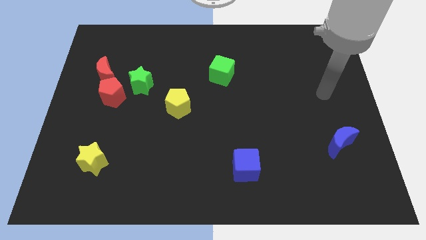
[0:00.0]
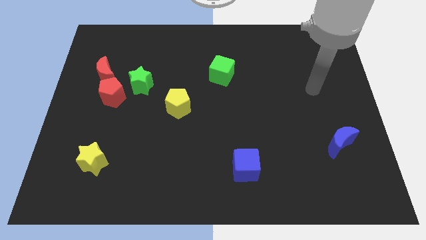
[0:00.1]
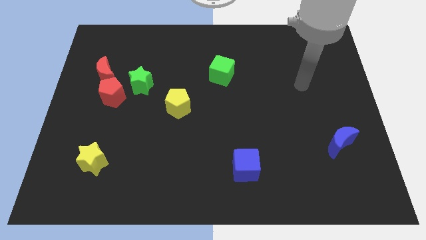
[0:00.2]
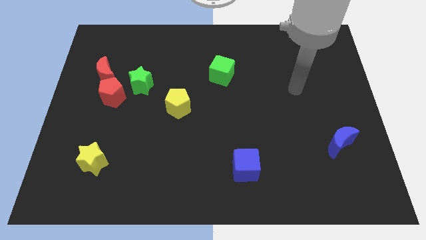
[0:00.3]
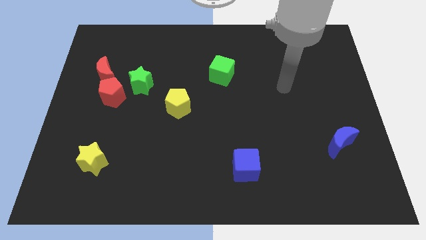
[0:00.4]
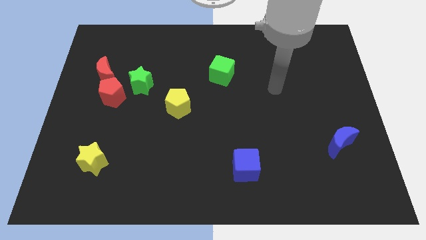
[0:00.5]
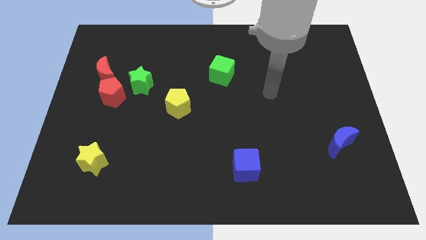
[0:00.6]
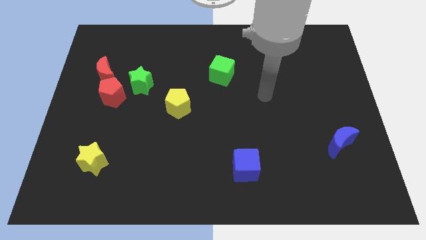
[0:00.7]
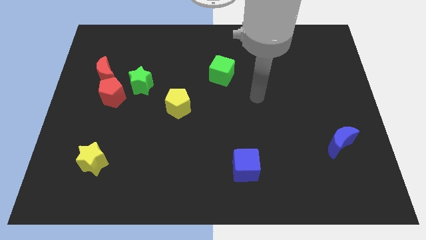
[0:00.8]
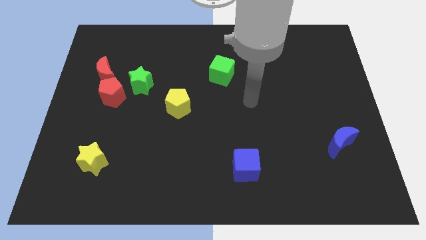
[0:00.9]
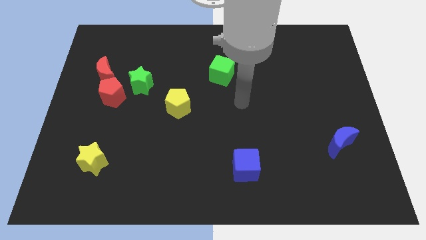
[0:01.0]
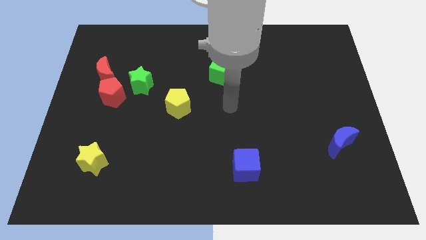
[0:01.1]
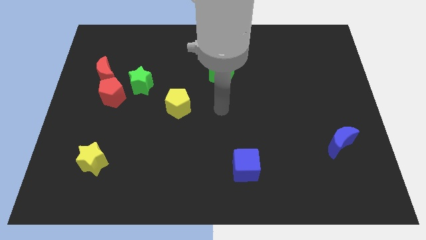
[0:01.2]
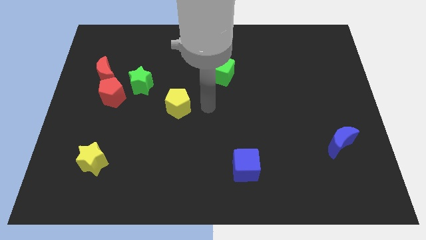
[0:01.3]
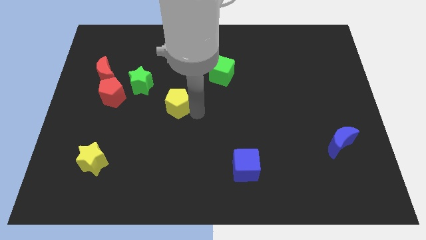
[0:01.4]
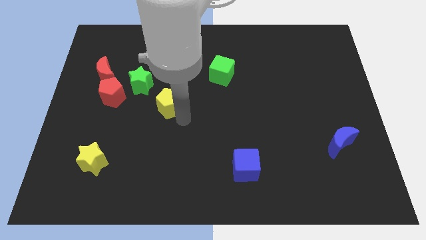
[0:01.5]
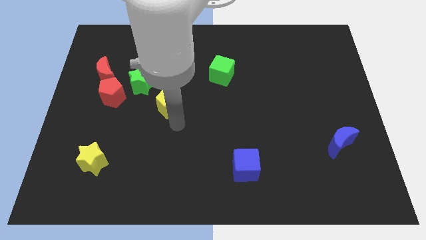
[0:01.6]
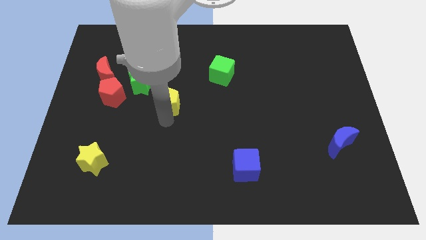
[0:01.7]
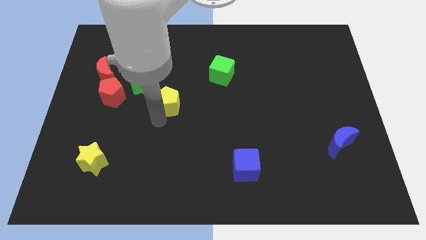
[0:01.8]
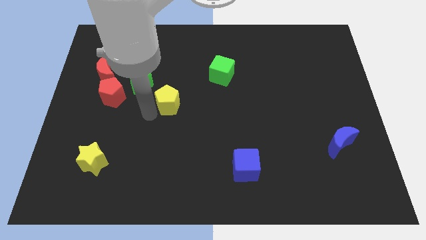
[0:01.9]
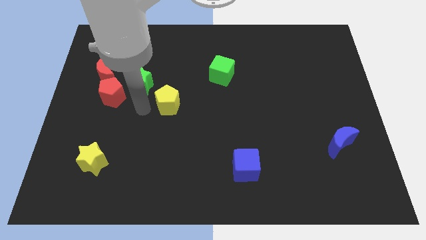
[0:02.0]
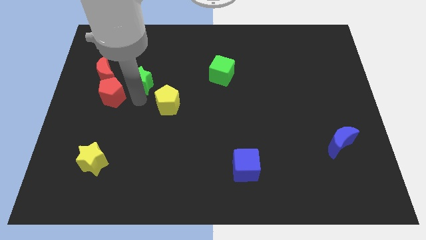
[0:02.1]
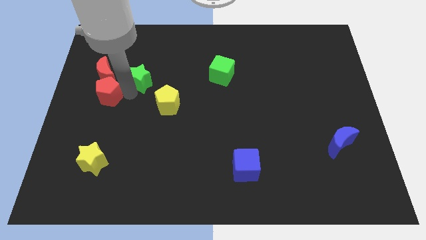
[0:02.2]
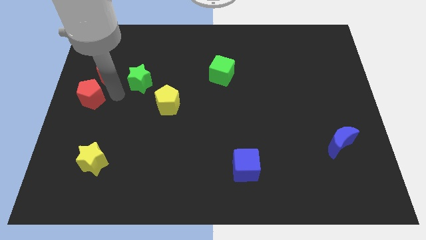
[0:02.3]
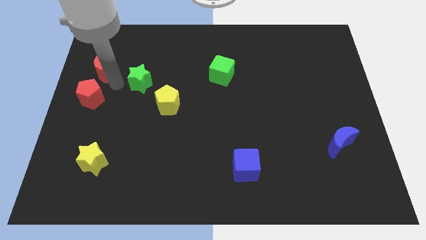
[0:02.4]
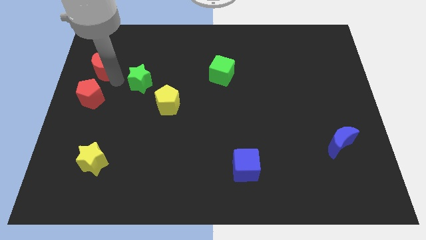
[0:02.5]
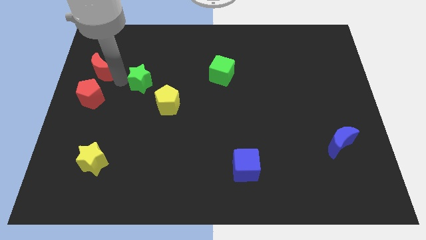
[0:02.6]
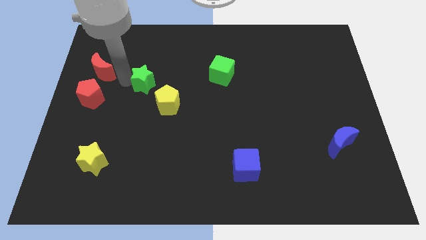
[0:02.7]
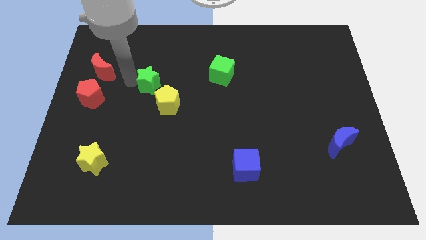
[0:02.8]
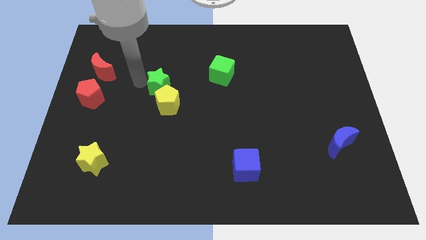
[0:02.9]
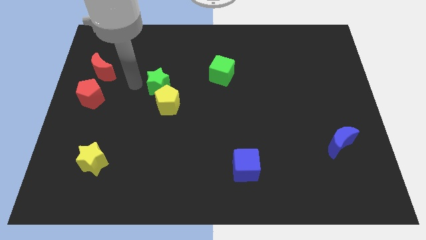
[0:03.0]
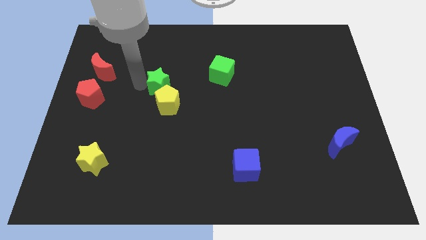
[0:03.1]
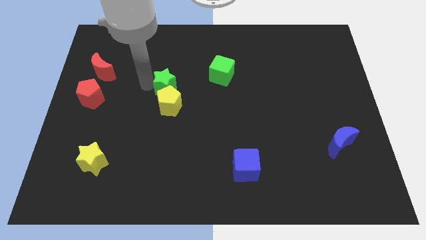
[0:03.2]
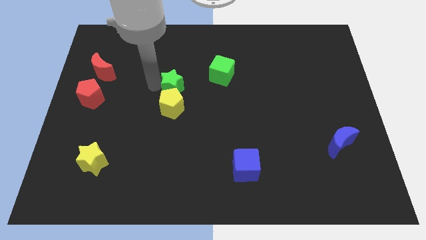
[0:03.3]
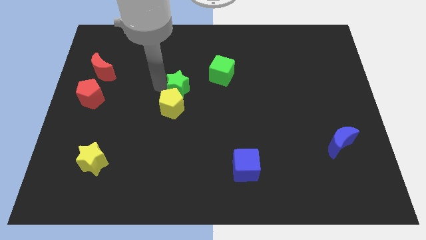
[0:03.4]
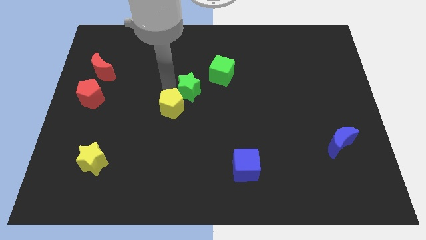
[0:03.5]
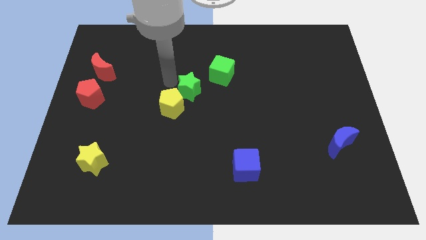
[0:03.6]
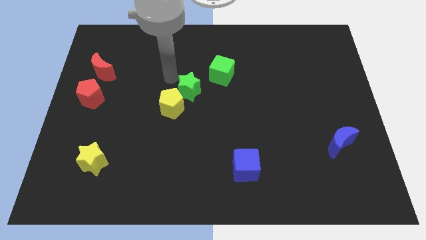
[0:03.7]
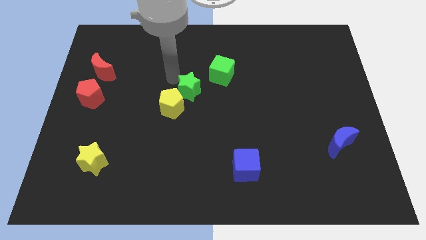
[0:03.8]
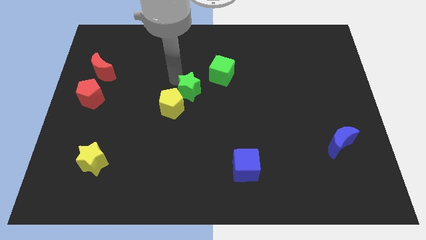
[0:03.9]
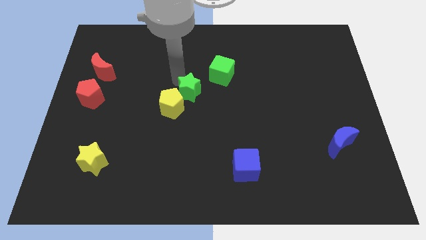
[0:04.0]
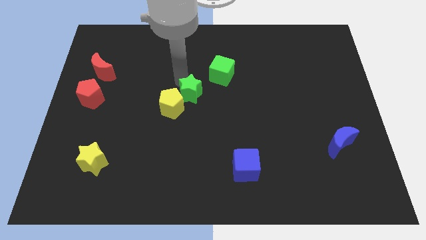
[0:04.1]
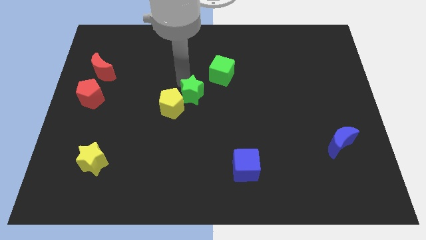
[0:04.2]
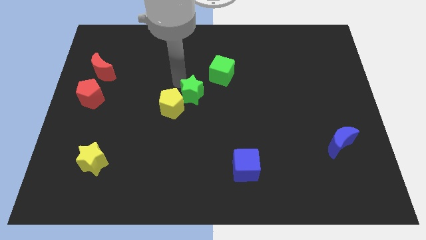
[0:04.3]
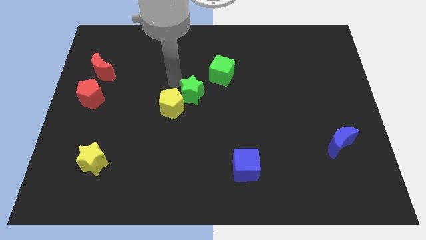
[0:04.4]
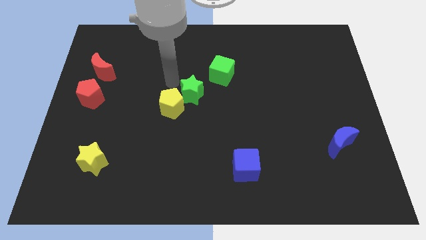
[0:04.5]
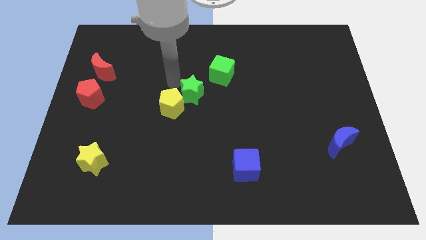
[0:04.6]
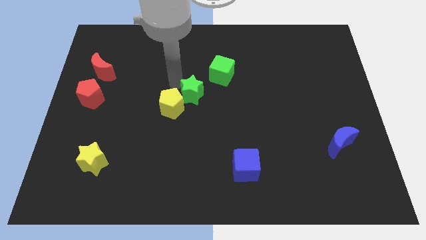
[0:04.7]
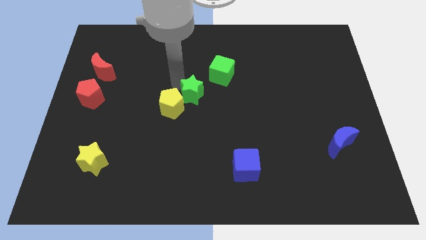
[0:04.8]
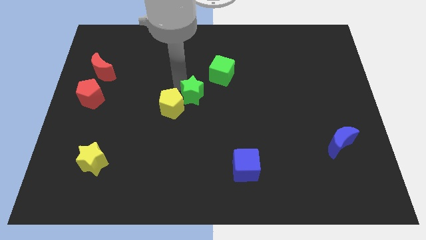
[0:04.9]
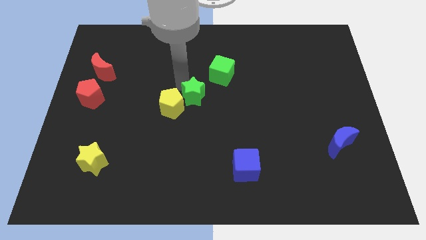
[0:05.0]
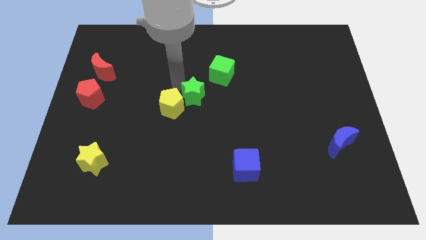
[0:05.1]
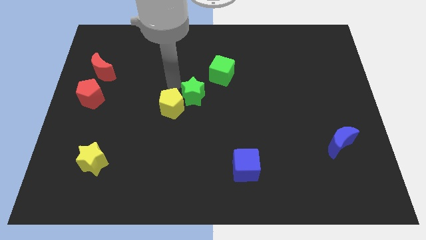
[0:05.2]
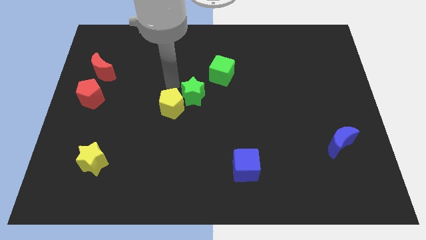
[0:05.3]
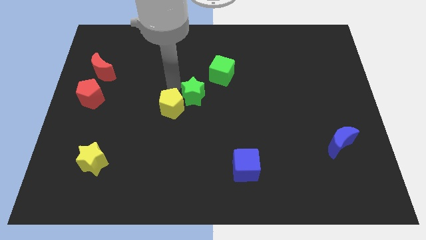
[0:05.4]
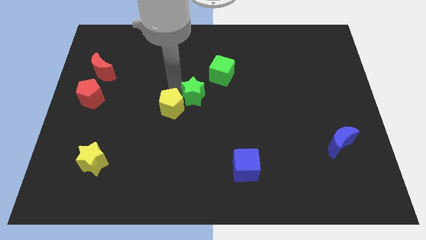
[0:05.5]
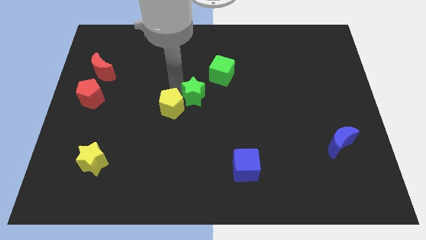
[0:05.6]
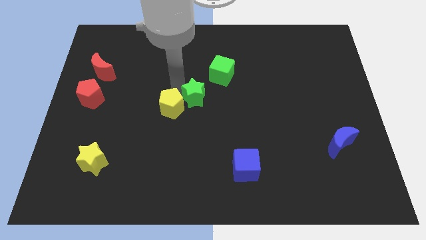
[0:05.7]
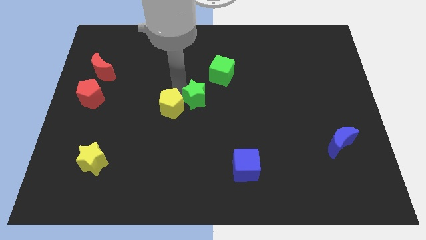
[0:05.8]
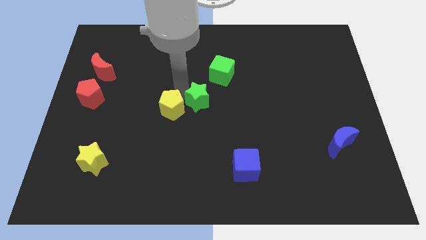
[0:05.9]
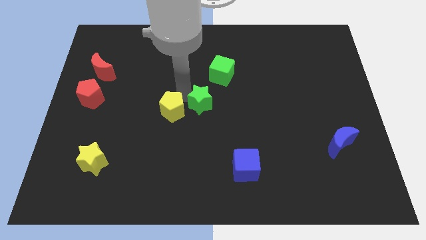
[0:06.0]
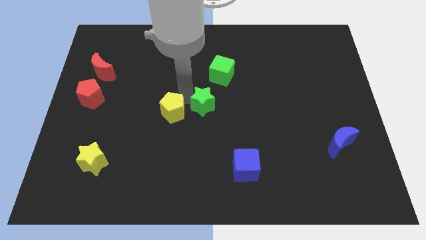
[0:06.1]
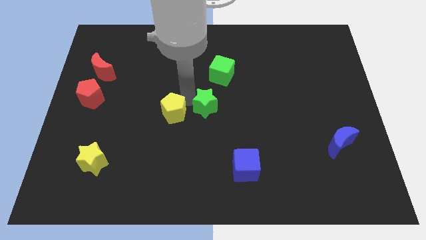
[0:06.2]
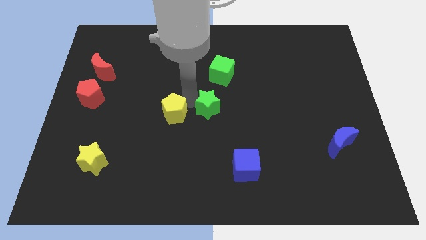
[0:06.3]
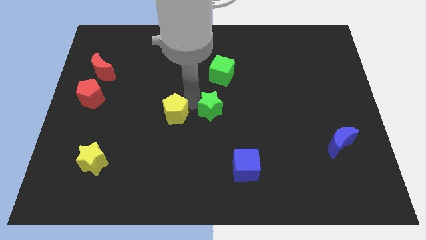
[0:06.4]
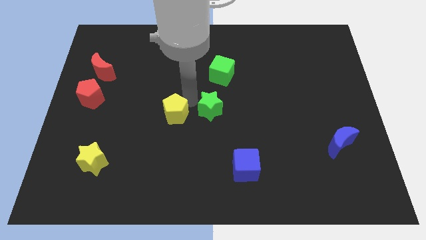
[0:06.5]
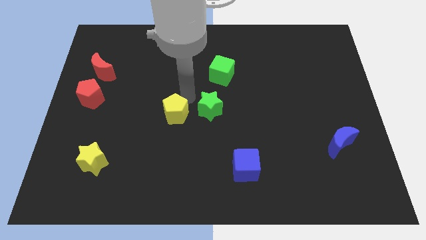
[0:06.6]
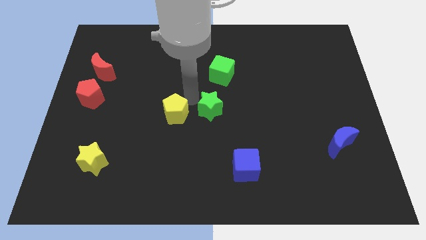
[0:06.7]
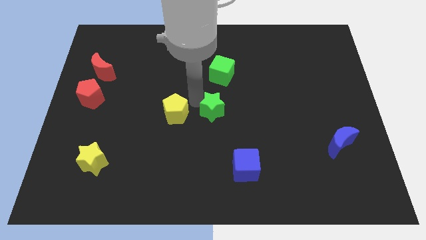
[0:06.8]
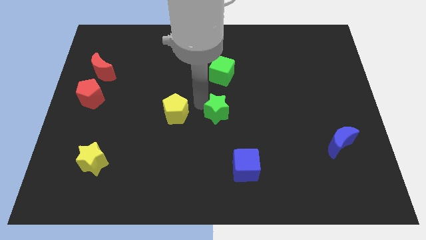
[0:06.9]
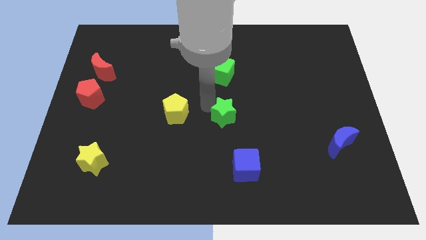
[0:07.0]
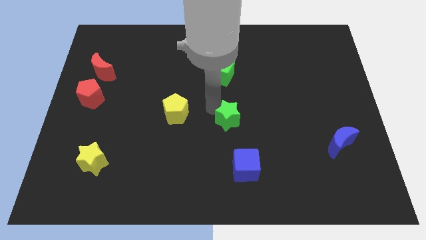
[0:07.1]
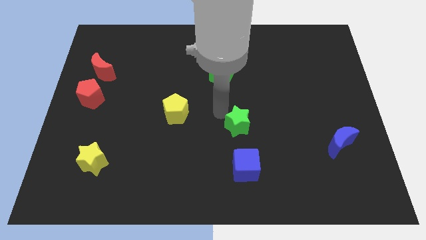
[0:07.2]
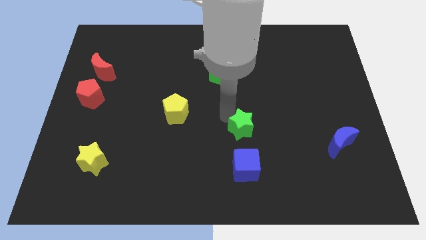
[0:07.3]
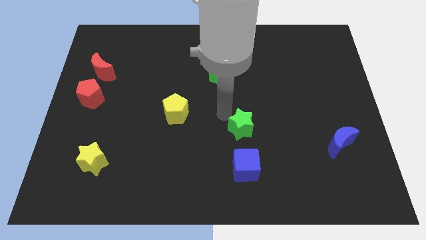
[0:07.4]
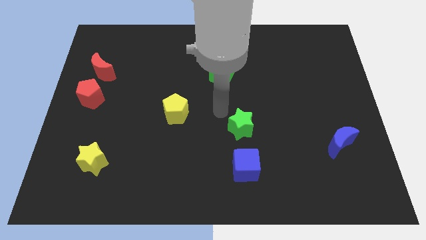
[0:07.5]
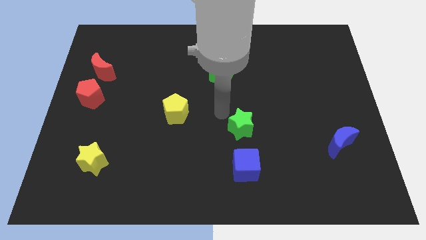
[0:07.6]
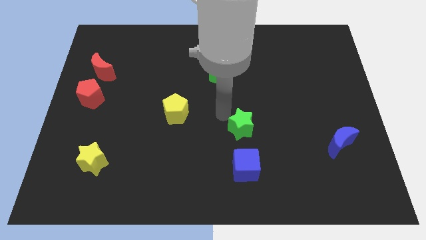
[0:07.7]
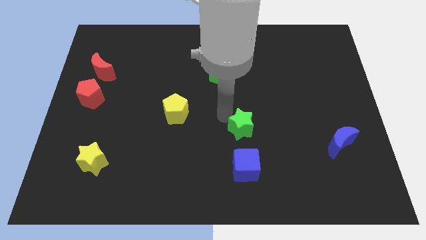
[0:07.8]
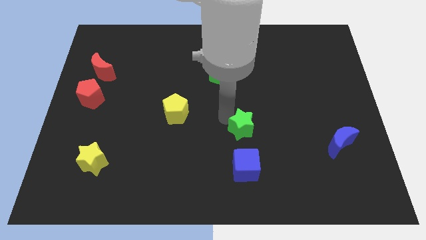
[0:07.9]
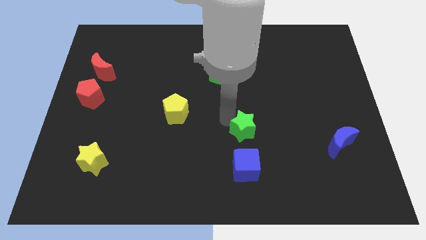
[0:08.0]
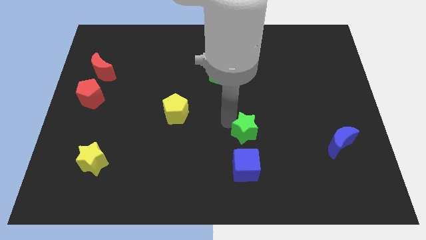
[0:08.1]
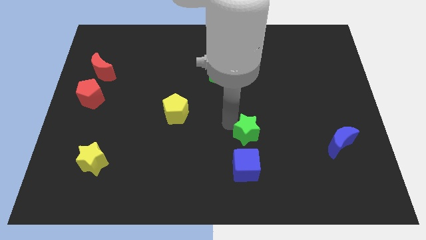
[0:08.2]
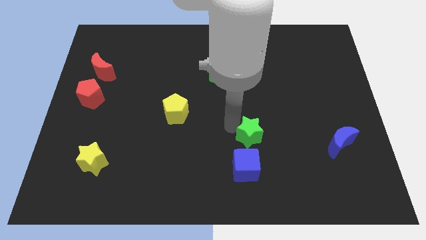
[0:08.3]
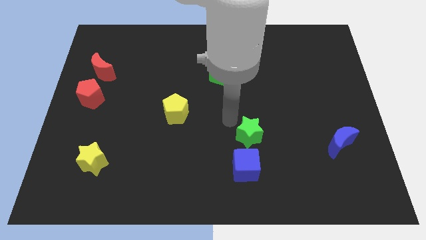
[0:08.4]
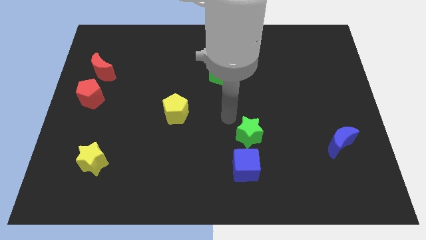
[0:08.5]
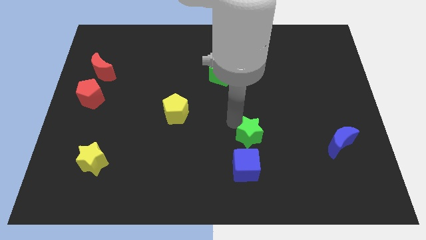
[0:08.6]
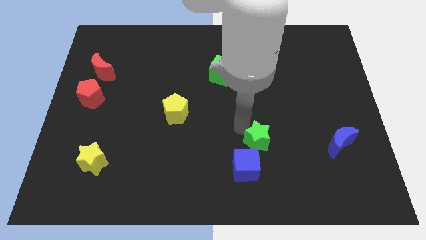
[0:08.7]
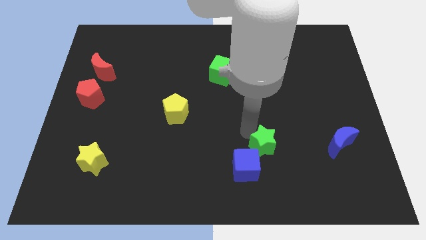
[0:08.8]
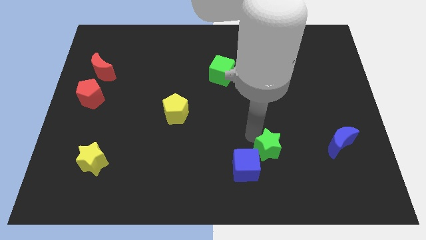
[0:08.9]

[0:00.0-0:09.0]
put the green star to the right side of the blue cube
